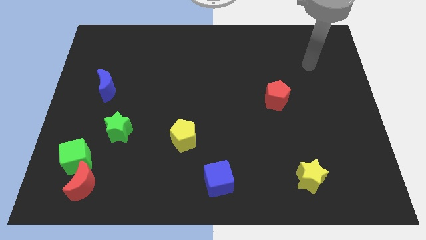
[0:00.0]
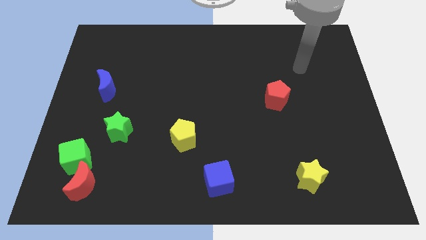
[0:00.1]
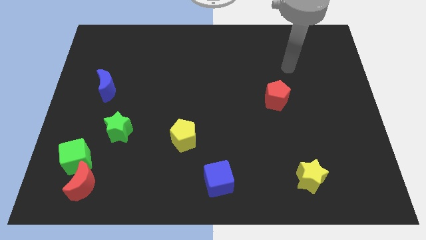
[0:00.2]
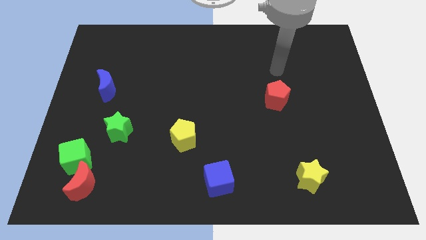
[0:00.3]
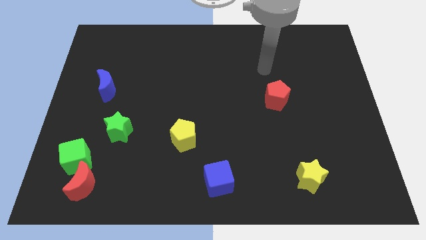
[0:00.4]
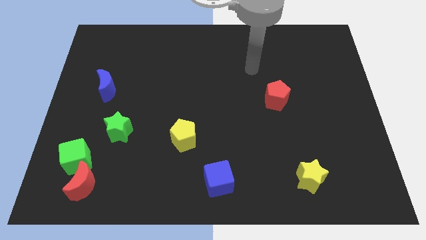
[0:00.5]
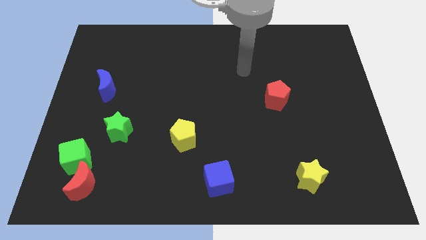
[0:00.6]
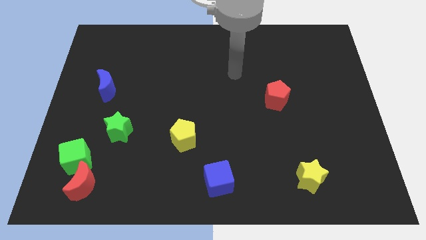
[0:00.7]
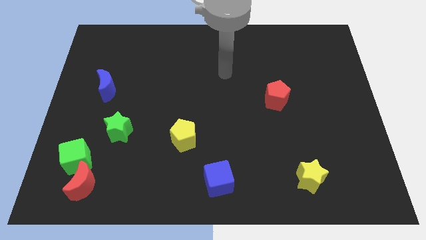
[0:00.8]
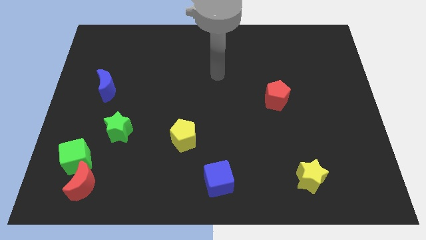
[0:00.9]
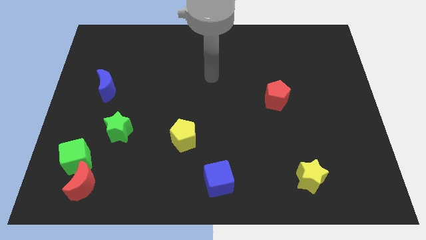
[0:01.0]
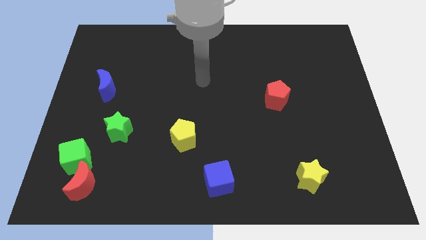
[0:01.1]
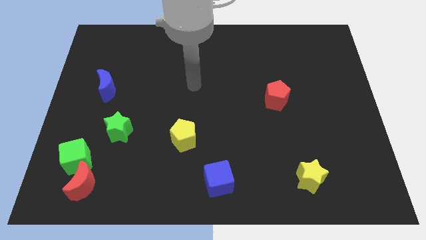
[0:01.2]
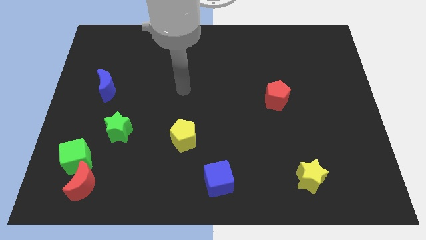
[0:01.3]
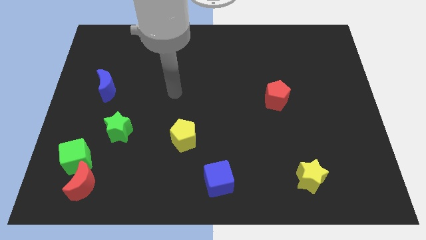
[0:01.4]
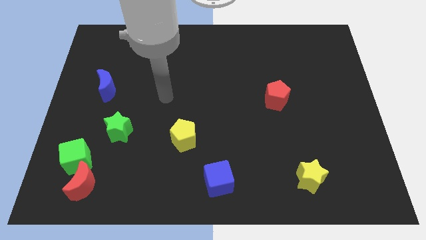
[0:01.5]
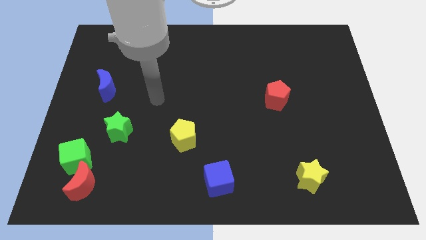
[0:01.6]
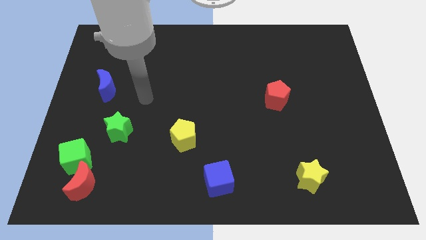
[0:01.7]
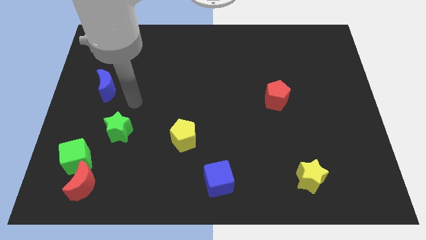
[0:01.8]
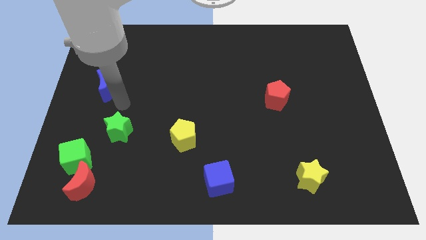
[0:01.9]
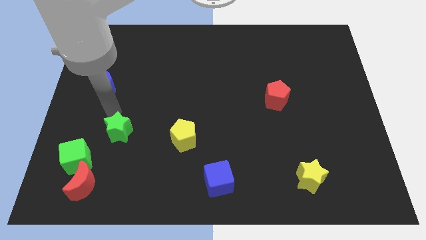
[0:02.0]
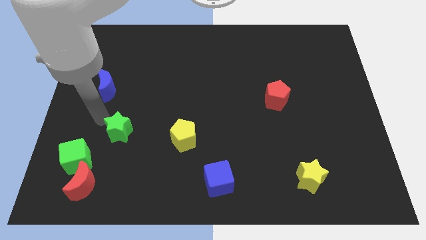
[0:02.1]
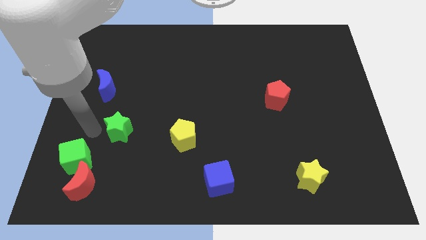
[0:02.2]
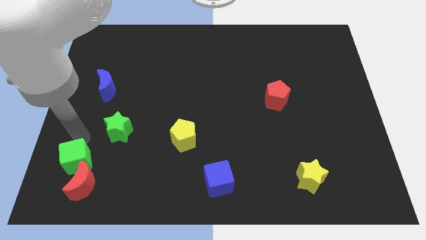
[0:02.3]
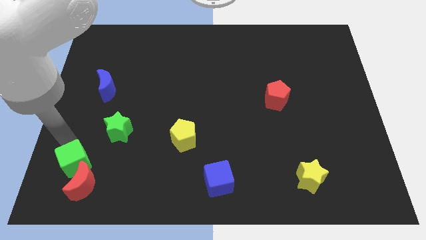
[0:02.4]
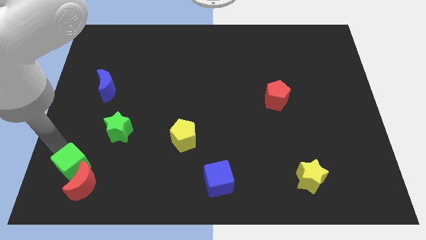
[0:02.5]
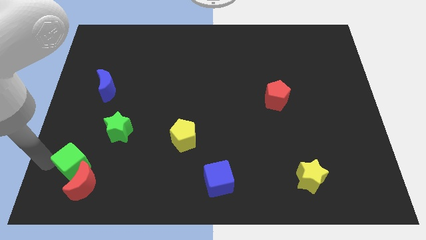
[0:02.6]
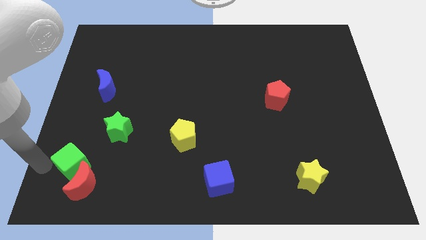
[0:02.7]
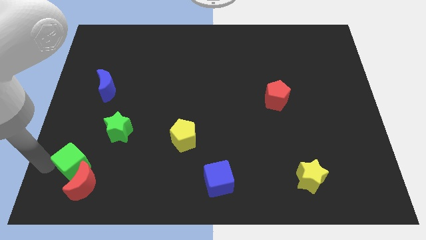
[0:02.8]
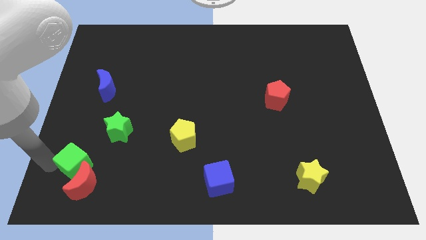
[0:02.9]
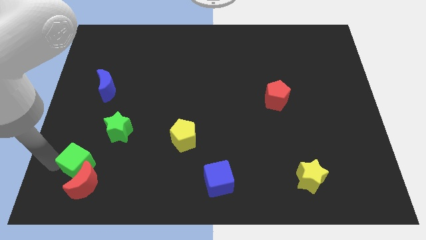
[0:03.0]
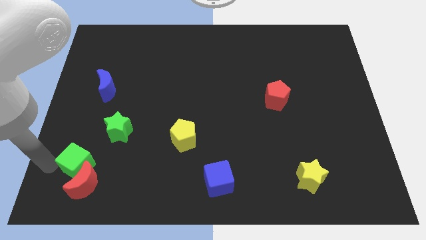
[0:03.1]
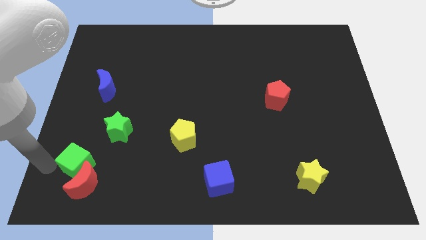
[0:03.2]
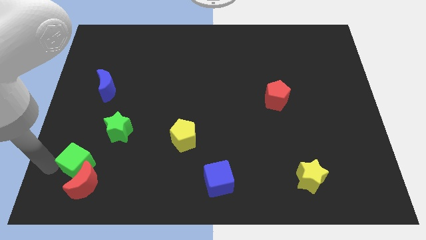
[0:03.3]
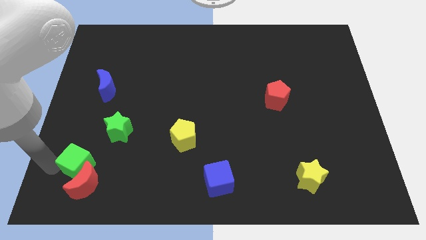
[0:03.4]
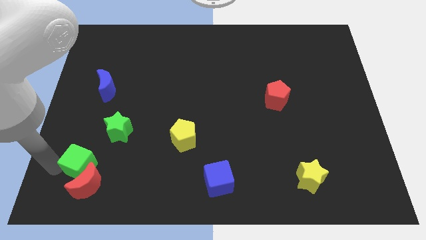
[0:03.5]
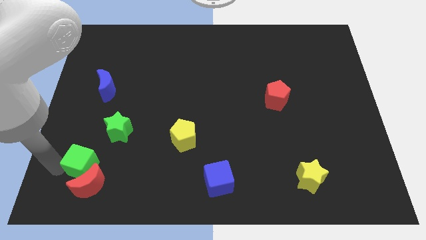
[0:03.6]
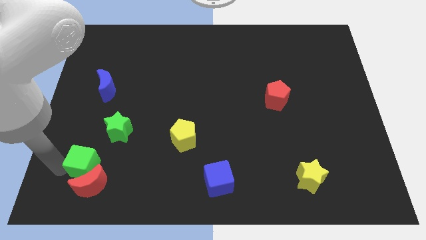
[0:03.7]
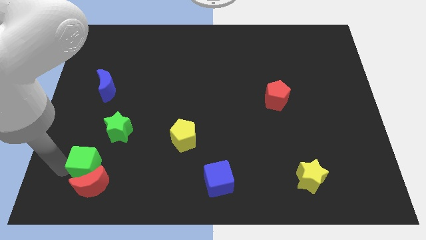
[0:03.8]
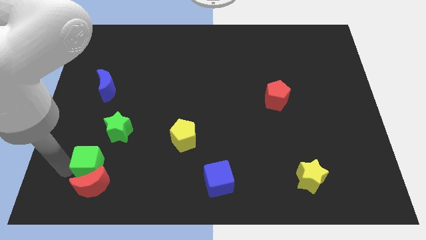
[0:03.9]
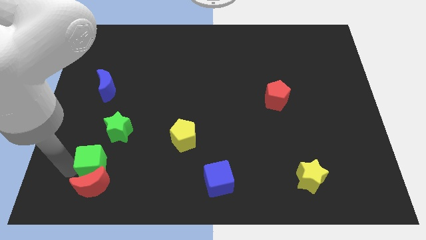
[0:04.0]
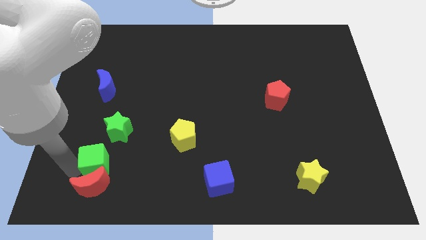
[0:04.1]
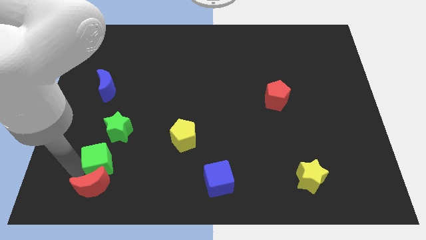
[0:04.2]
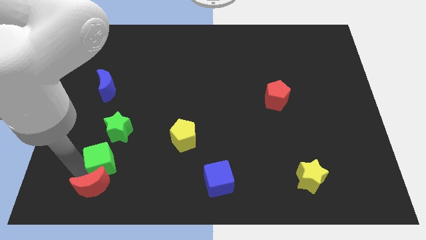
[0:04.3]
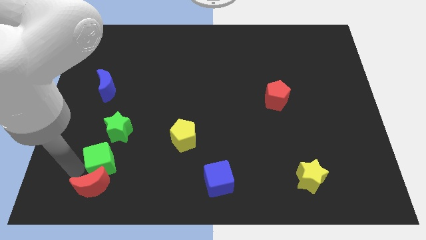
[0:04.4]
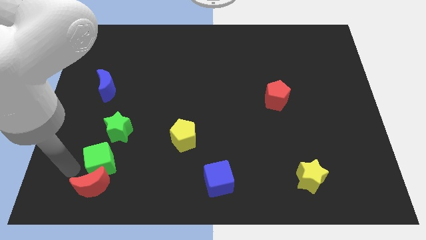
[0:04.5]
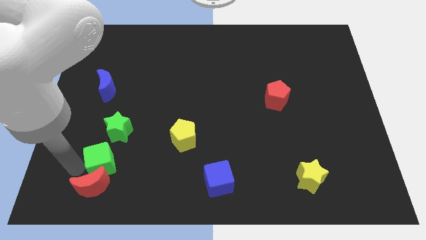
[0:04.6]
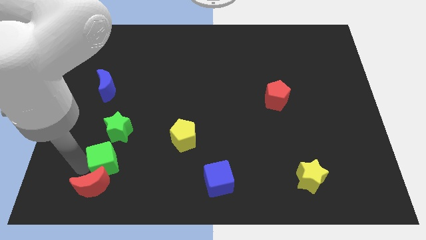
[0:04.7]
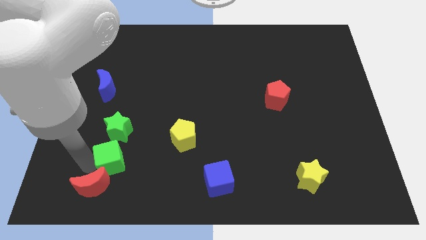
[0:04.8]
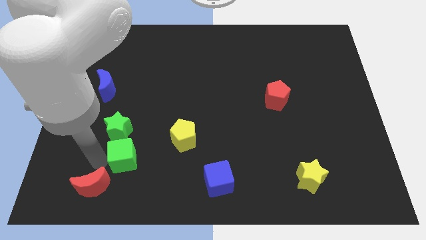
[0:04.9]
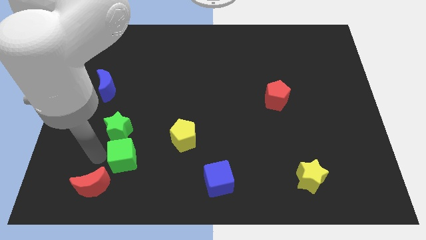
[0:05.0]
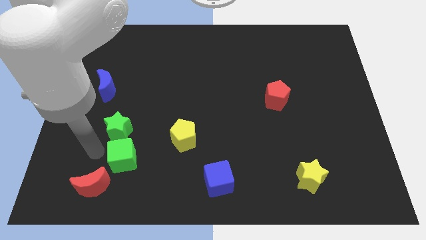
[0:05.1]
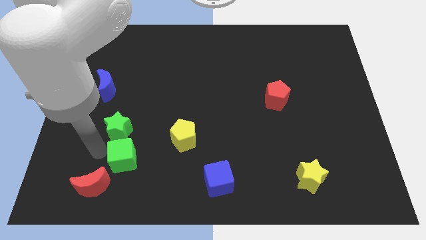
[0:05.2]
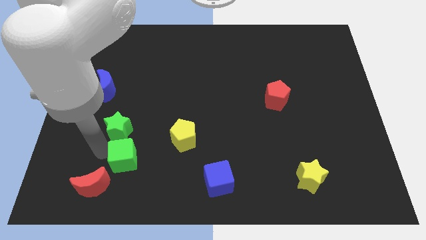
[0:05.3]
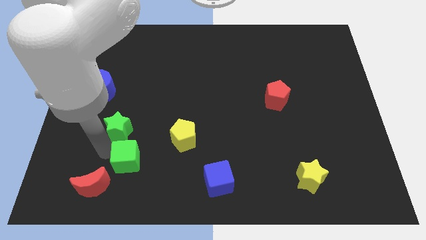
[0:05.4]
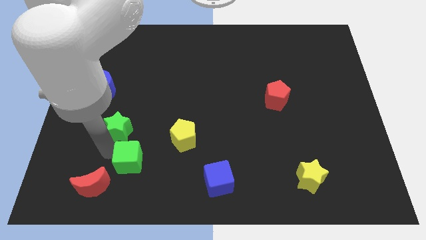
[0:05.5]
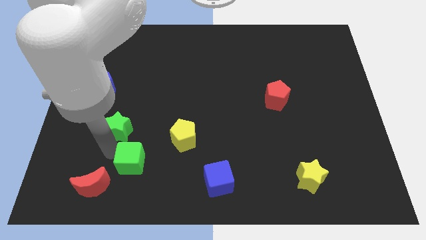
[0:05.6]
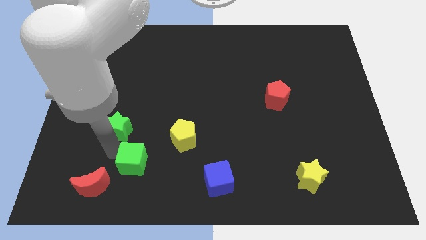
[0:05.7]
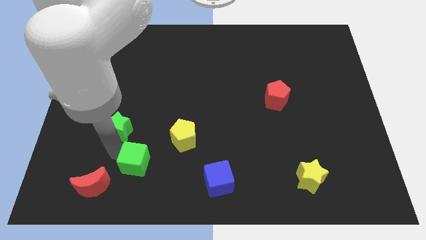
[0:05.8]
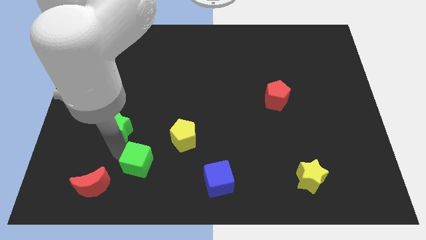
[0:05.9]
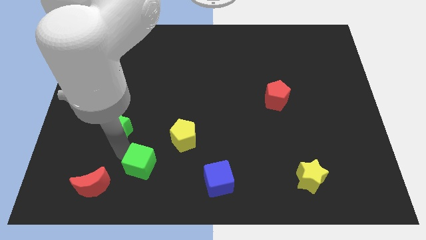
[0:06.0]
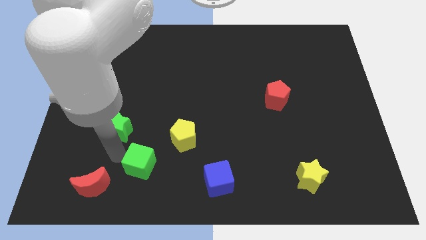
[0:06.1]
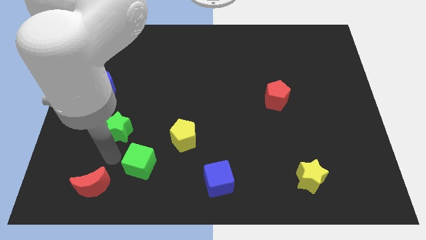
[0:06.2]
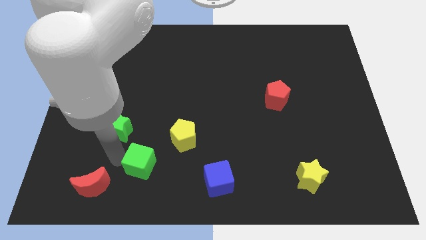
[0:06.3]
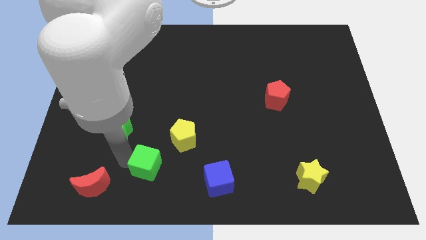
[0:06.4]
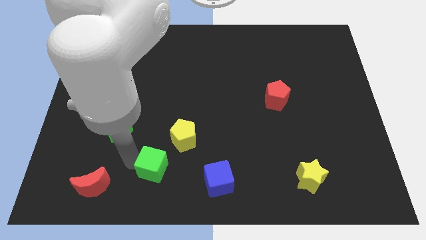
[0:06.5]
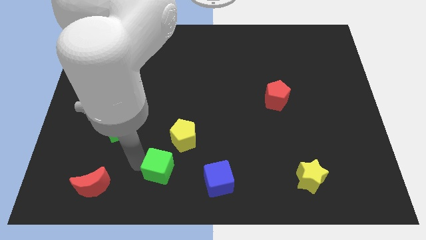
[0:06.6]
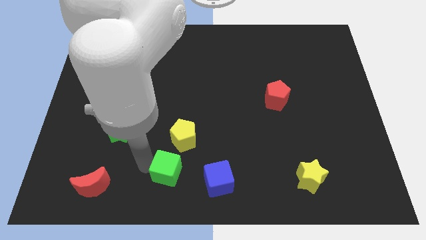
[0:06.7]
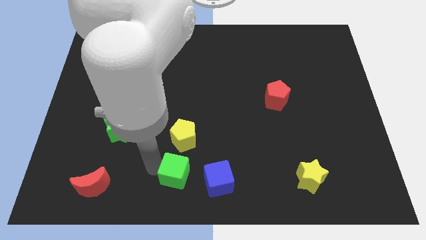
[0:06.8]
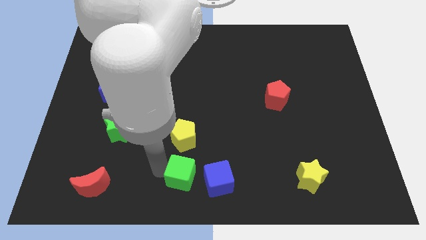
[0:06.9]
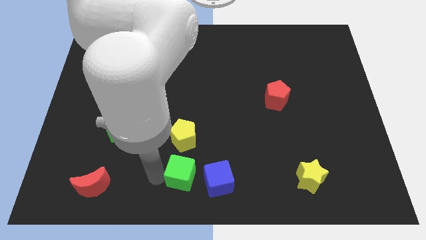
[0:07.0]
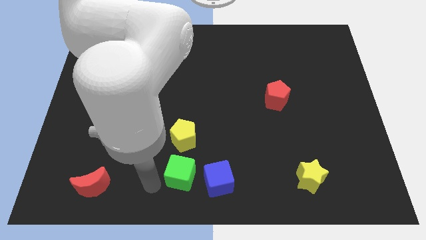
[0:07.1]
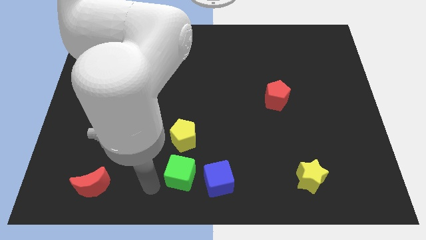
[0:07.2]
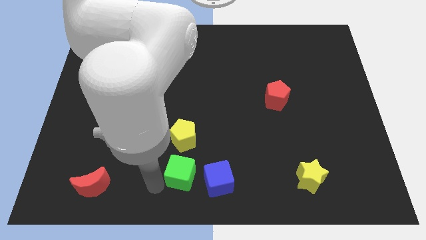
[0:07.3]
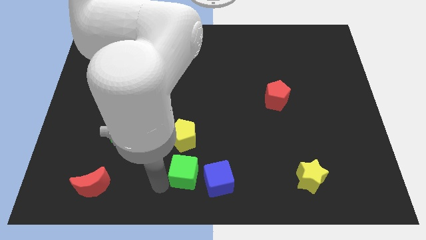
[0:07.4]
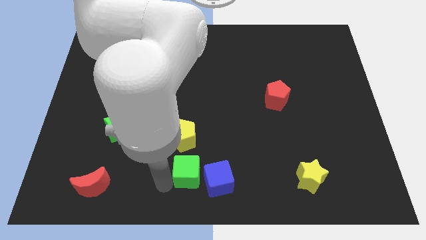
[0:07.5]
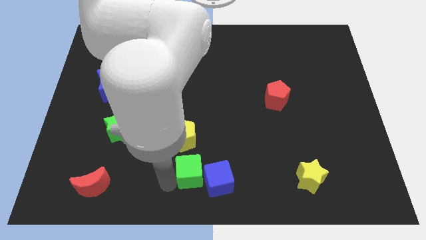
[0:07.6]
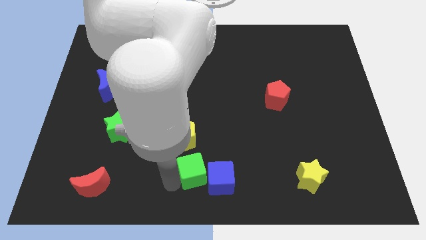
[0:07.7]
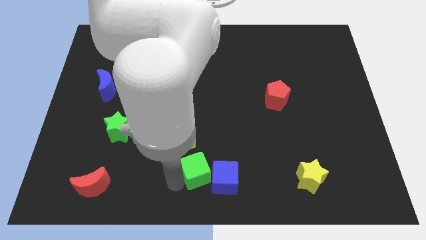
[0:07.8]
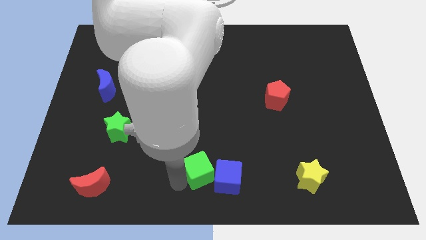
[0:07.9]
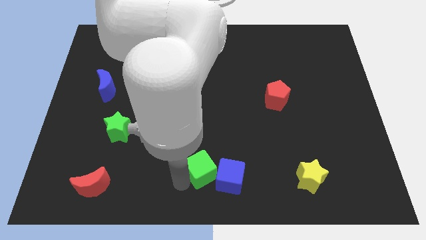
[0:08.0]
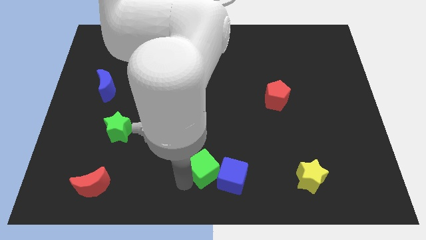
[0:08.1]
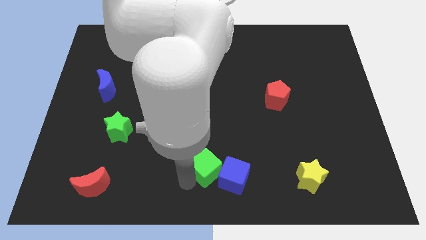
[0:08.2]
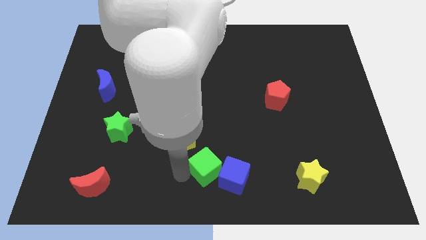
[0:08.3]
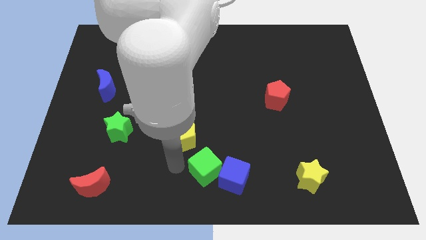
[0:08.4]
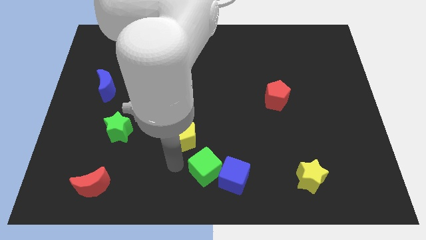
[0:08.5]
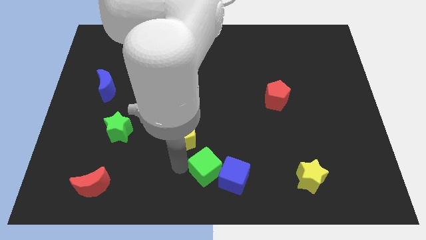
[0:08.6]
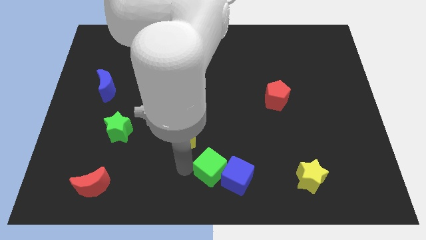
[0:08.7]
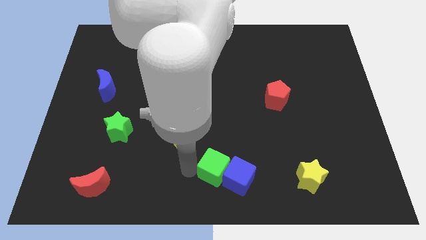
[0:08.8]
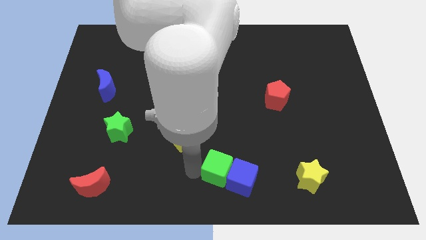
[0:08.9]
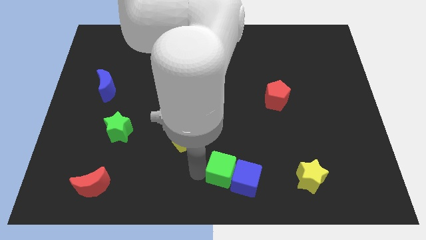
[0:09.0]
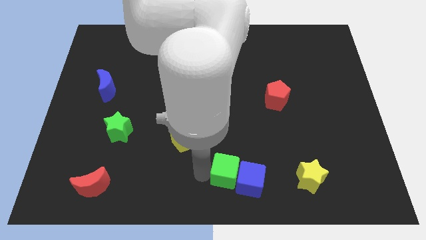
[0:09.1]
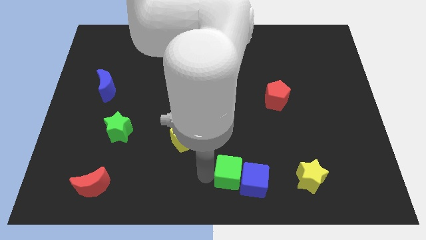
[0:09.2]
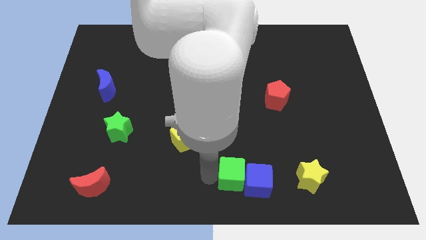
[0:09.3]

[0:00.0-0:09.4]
slide the green cube just left of the yellow star
